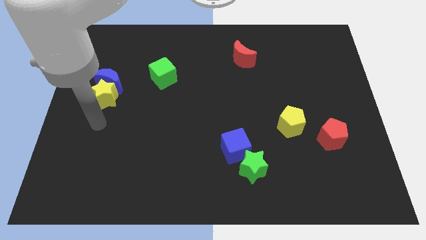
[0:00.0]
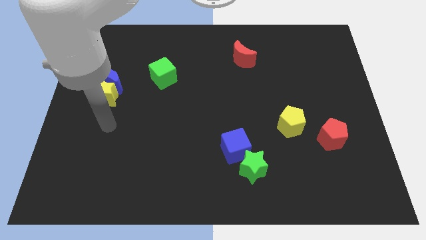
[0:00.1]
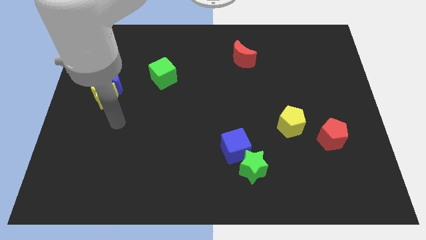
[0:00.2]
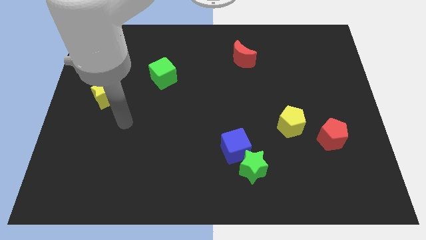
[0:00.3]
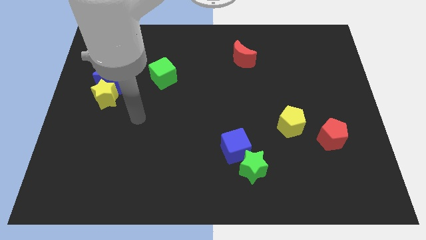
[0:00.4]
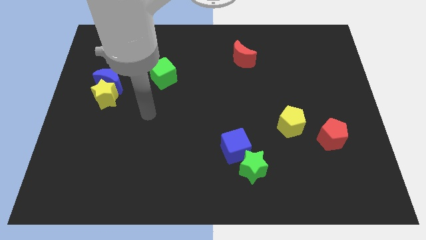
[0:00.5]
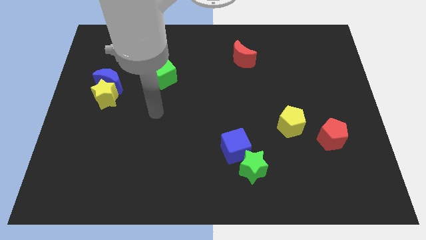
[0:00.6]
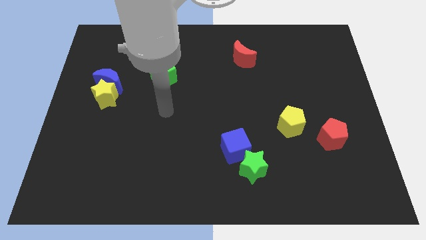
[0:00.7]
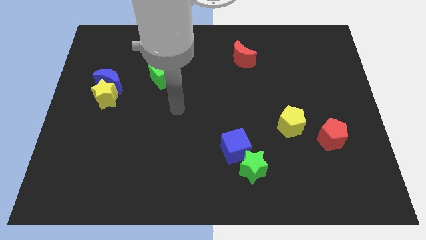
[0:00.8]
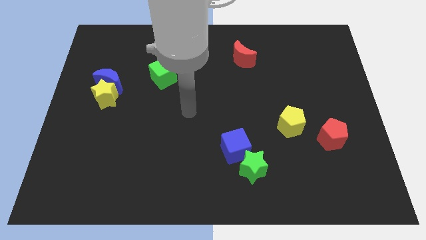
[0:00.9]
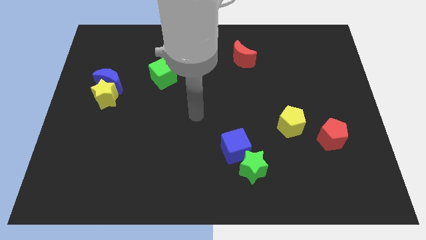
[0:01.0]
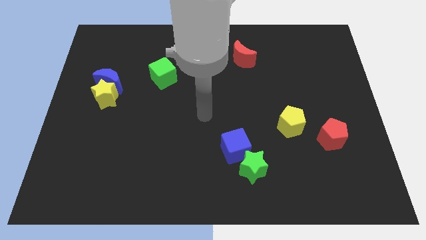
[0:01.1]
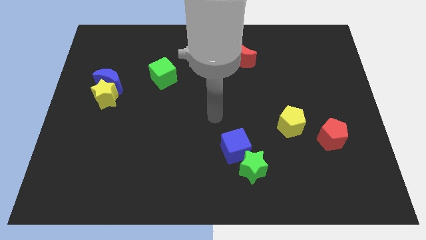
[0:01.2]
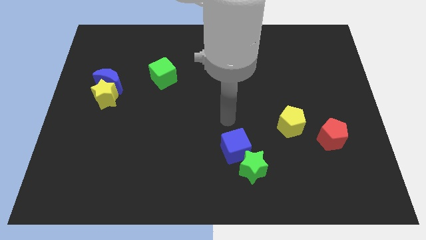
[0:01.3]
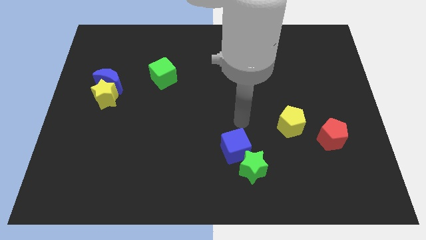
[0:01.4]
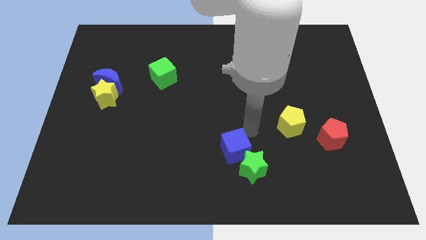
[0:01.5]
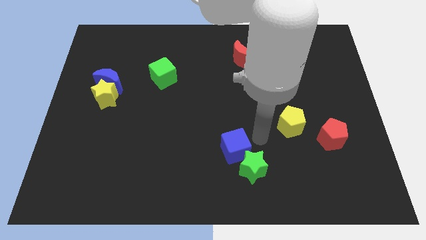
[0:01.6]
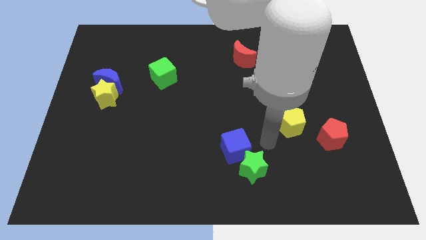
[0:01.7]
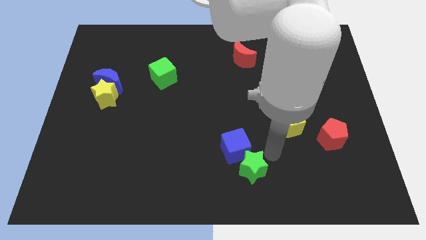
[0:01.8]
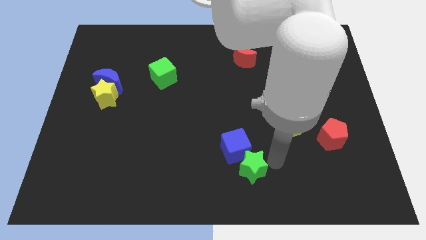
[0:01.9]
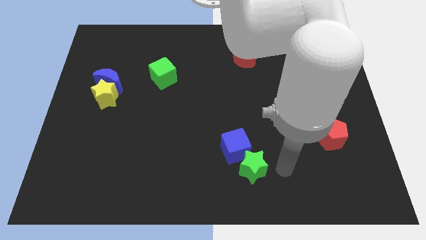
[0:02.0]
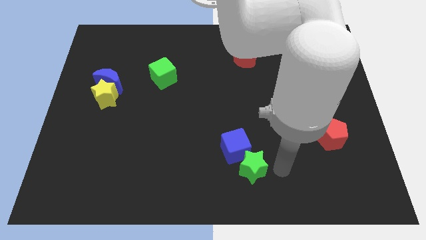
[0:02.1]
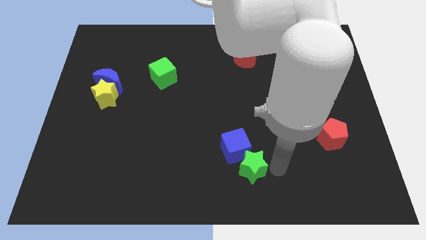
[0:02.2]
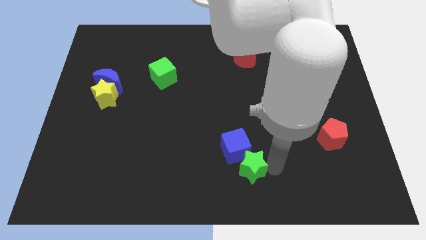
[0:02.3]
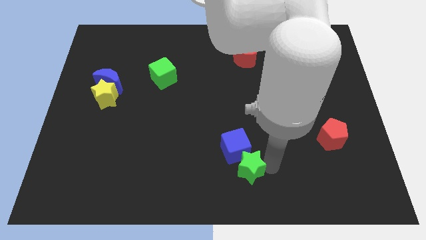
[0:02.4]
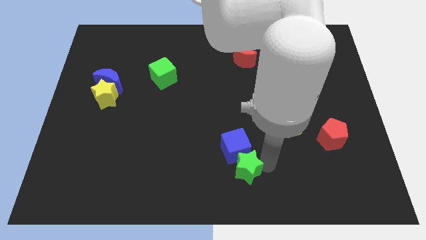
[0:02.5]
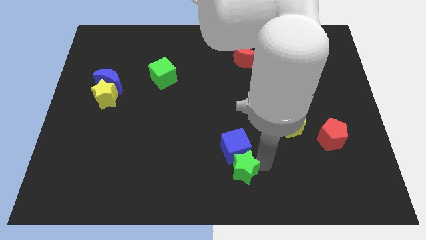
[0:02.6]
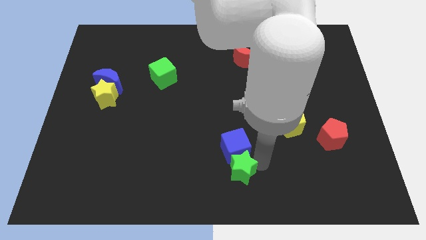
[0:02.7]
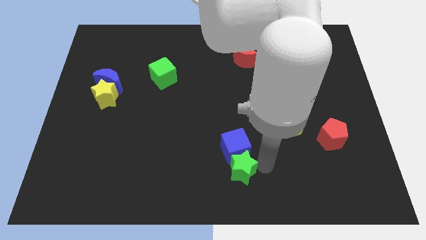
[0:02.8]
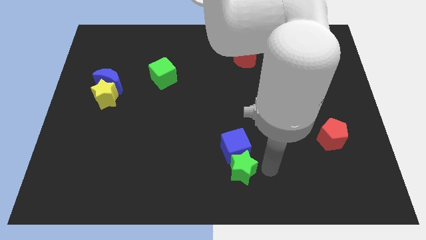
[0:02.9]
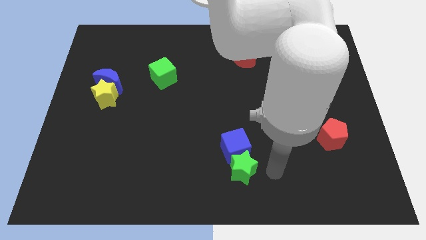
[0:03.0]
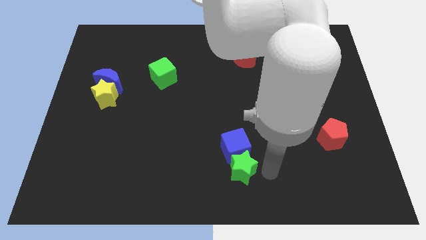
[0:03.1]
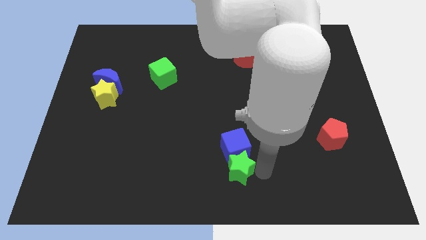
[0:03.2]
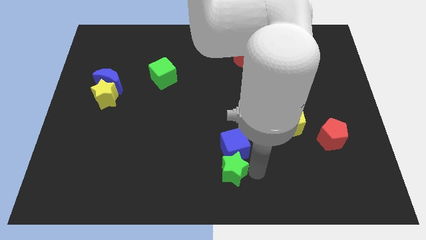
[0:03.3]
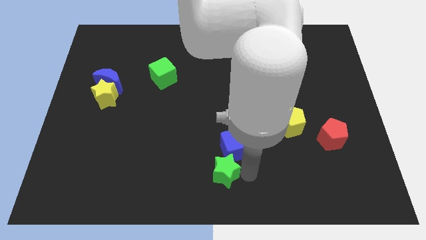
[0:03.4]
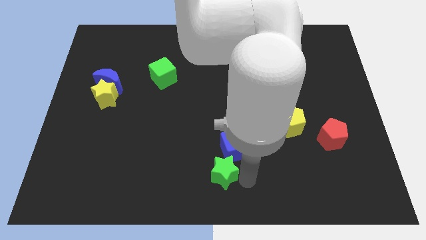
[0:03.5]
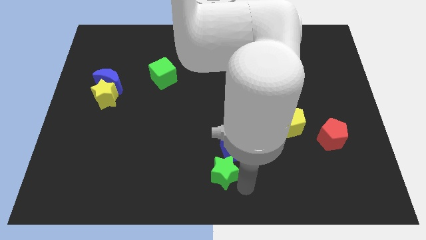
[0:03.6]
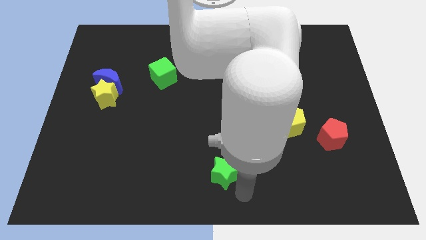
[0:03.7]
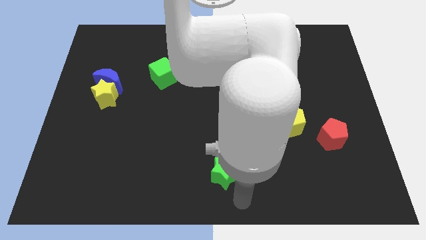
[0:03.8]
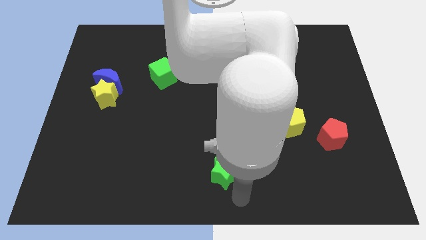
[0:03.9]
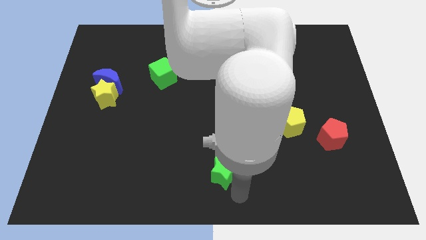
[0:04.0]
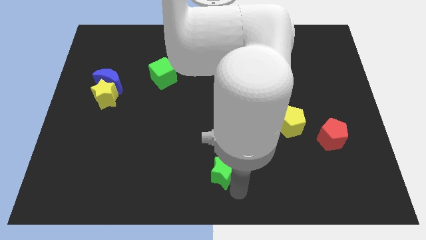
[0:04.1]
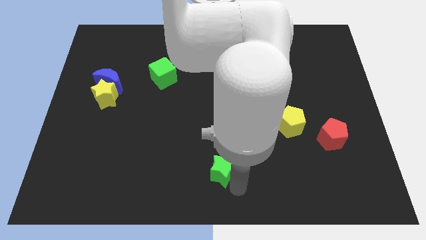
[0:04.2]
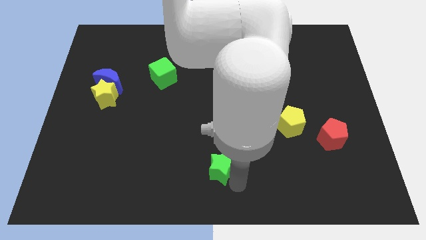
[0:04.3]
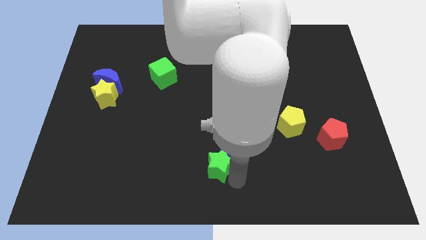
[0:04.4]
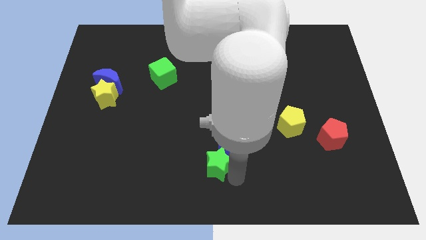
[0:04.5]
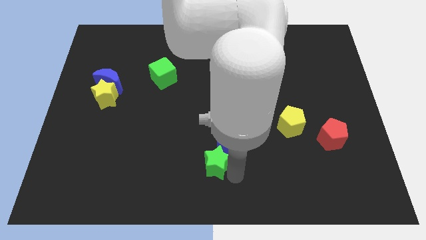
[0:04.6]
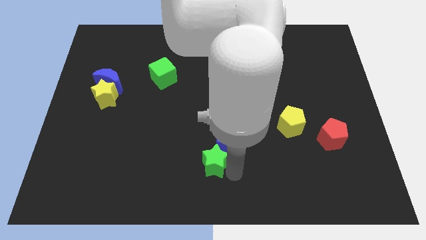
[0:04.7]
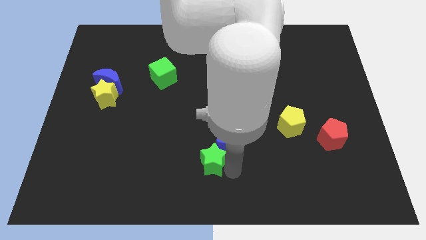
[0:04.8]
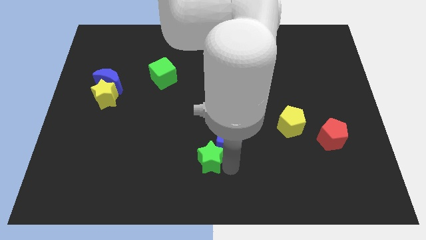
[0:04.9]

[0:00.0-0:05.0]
move the green star up and then to the left a little bit

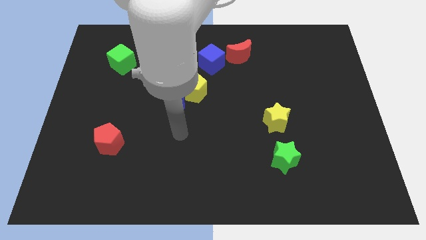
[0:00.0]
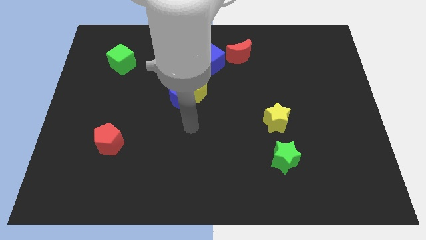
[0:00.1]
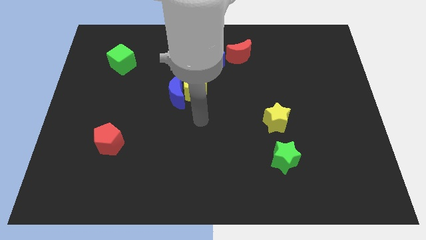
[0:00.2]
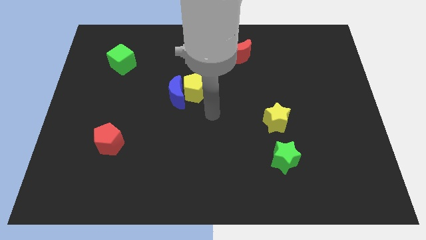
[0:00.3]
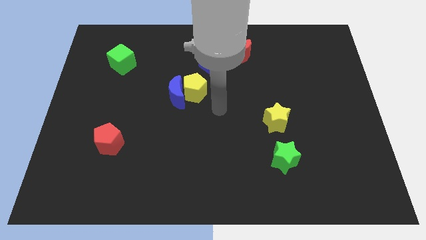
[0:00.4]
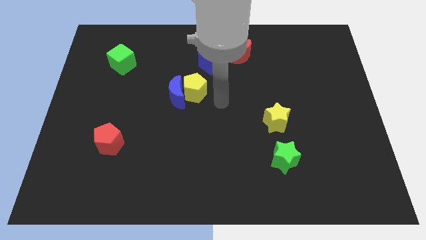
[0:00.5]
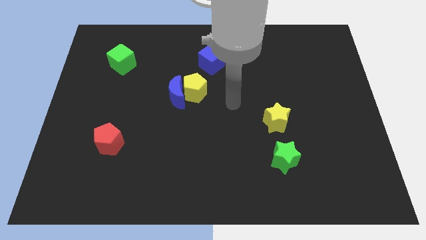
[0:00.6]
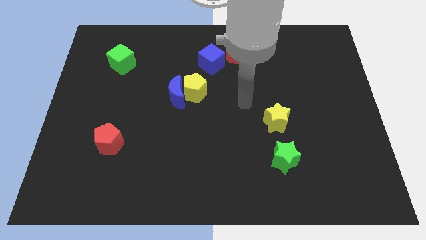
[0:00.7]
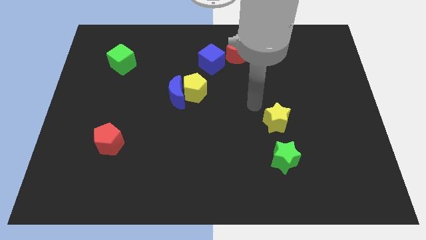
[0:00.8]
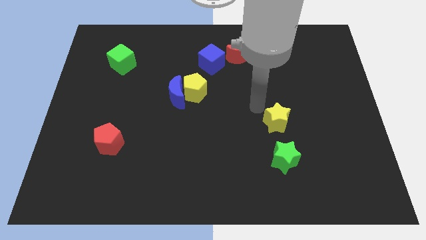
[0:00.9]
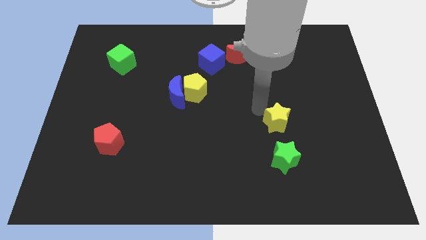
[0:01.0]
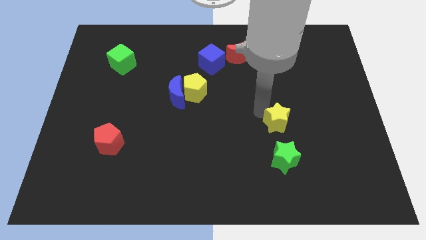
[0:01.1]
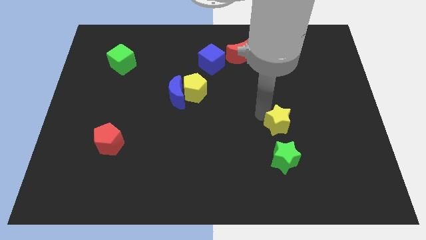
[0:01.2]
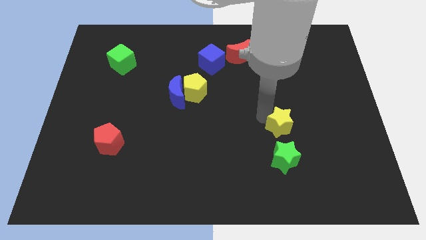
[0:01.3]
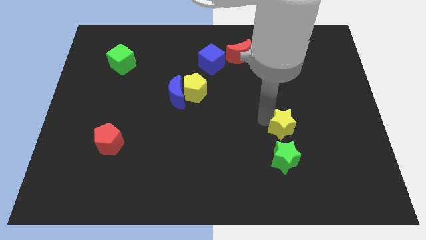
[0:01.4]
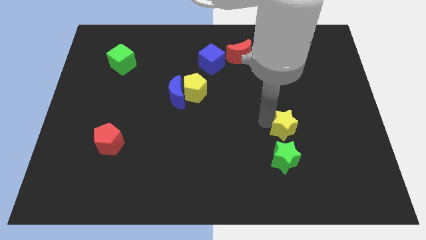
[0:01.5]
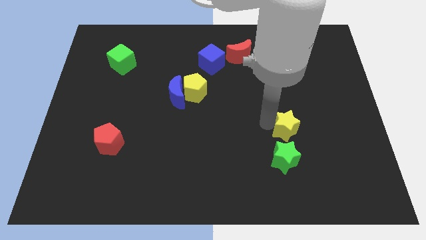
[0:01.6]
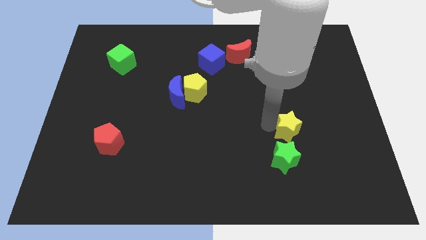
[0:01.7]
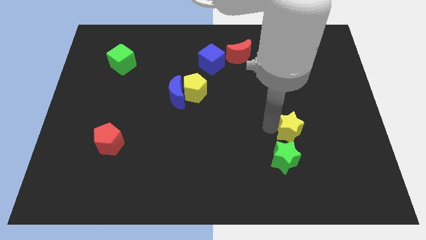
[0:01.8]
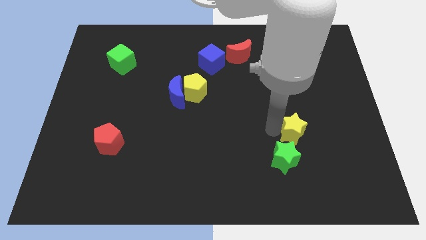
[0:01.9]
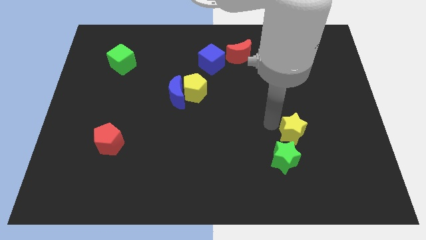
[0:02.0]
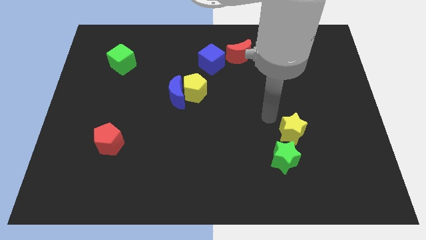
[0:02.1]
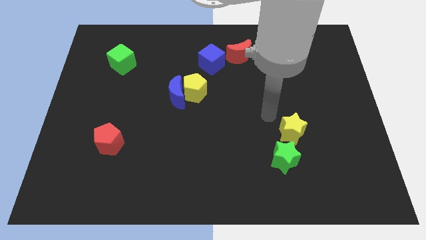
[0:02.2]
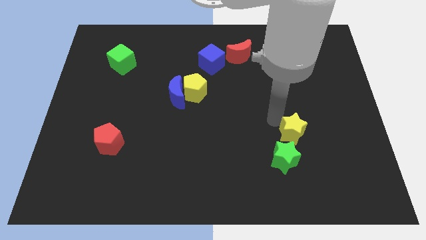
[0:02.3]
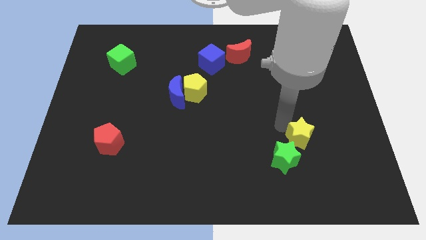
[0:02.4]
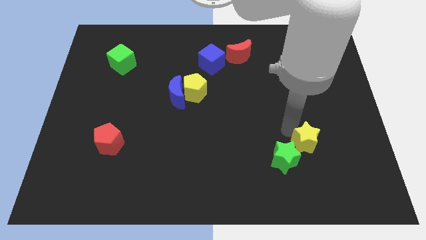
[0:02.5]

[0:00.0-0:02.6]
move the yellow star down and right diagonally a little bit

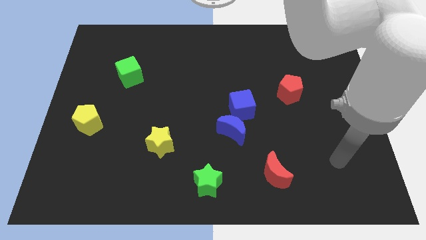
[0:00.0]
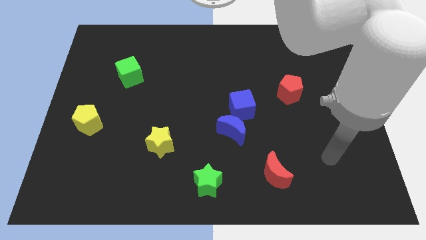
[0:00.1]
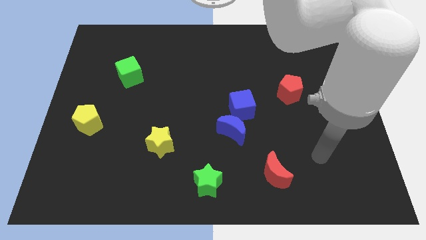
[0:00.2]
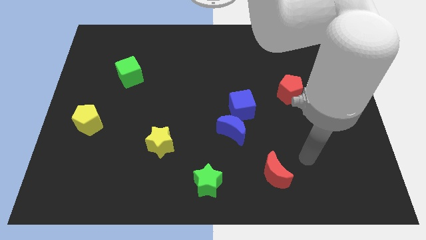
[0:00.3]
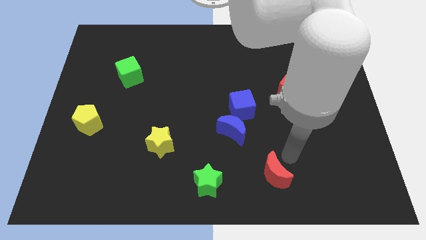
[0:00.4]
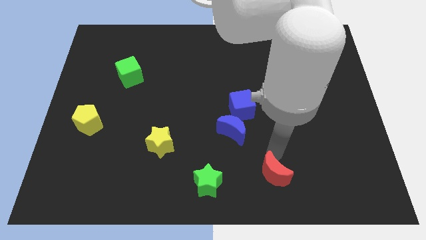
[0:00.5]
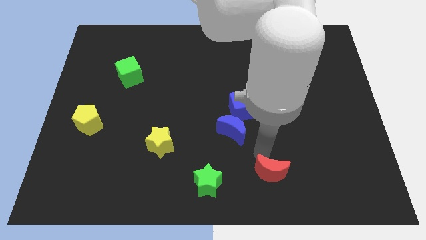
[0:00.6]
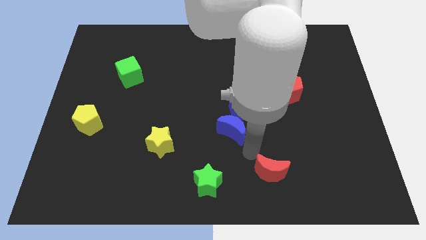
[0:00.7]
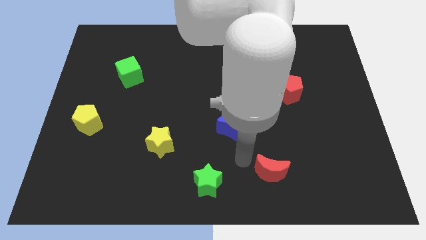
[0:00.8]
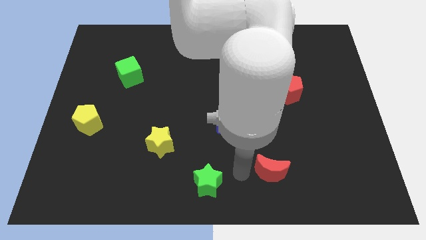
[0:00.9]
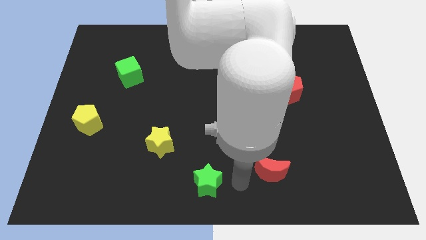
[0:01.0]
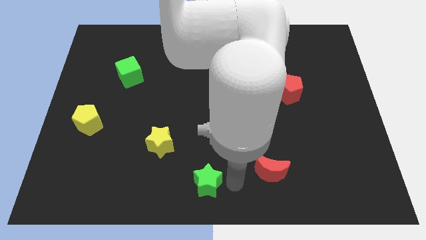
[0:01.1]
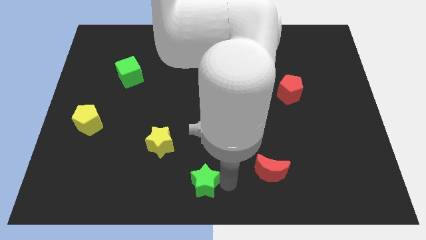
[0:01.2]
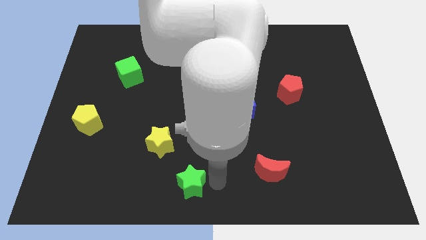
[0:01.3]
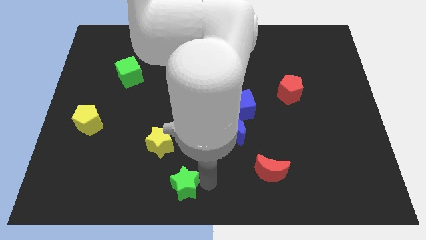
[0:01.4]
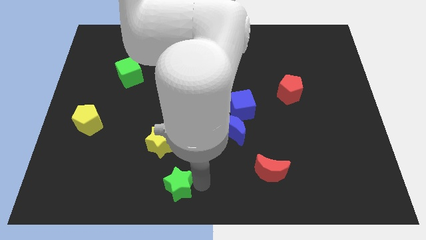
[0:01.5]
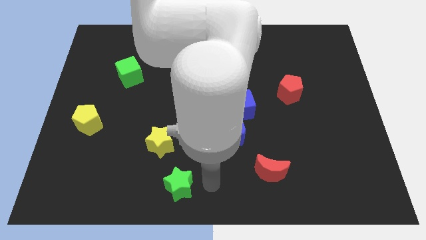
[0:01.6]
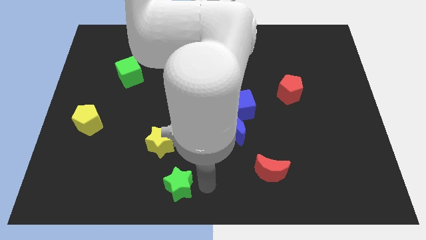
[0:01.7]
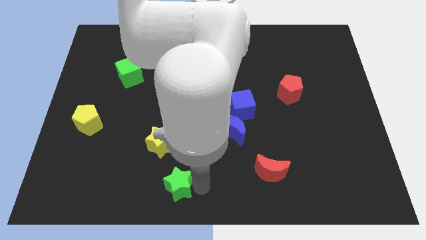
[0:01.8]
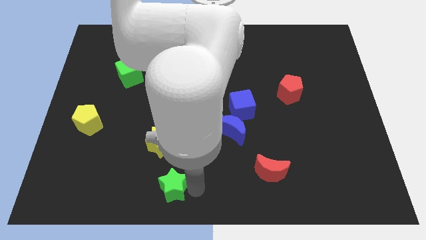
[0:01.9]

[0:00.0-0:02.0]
move the green star slightly to the left
